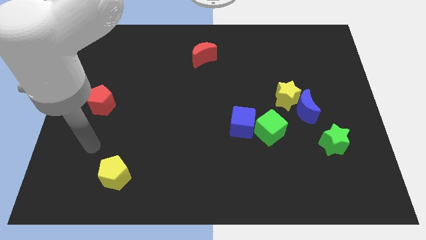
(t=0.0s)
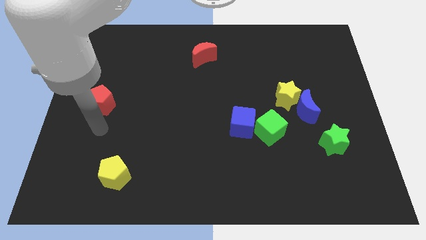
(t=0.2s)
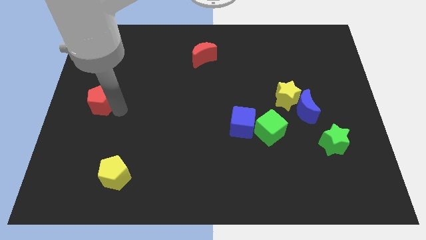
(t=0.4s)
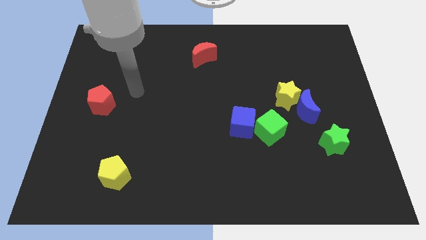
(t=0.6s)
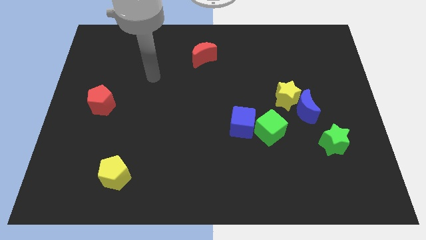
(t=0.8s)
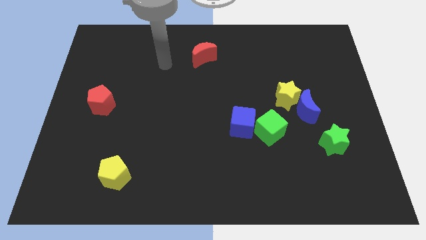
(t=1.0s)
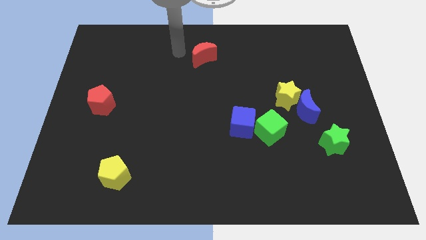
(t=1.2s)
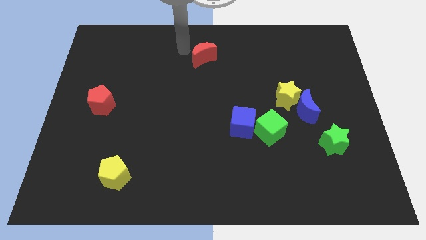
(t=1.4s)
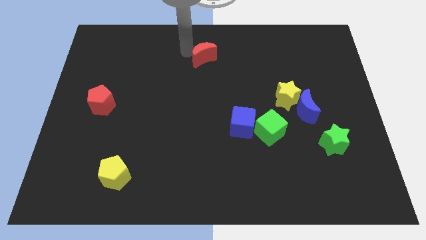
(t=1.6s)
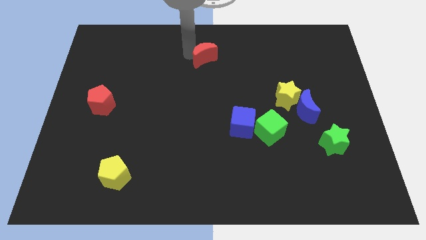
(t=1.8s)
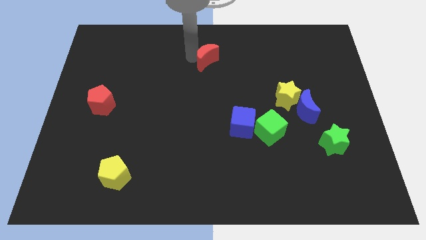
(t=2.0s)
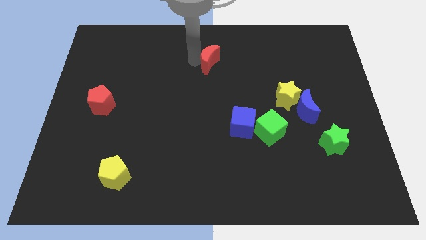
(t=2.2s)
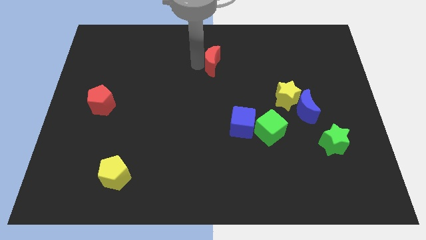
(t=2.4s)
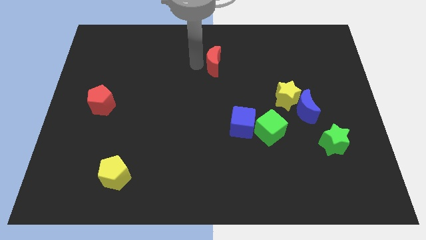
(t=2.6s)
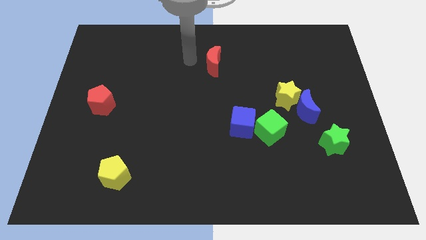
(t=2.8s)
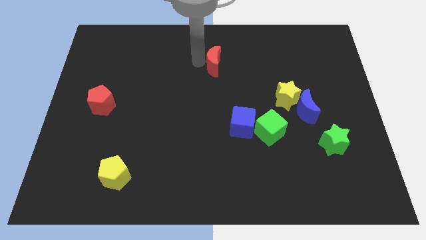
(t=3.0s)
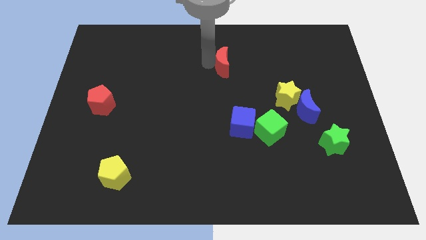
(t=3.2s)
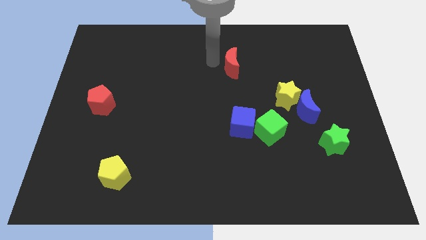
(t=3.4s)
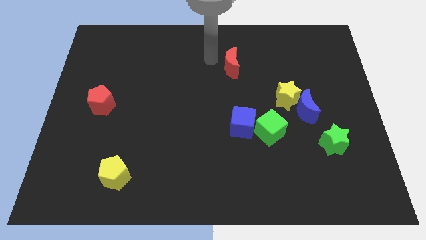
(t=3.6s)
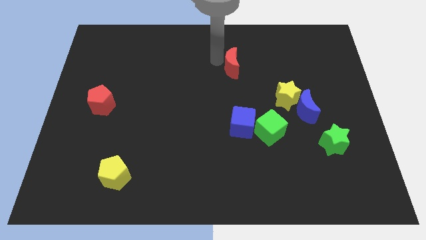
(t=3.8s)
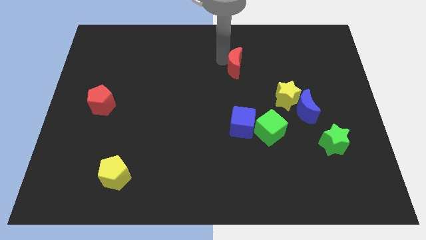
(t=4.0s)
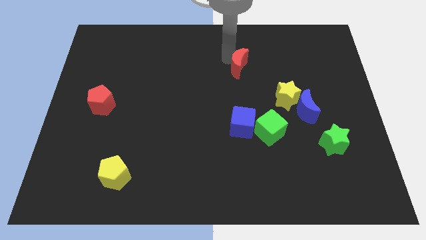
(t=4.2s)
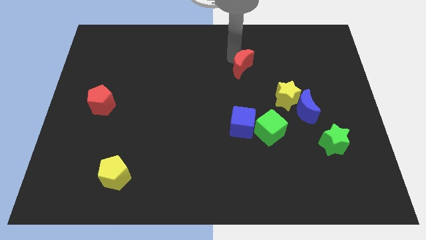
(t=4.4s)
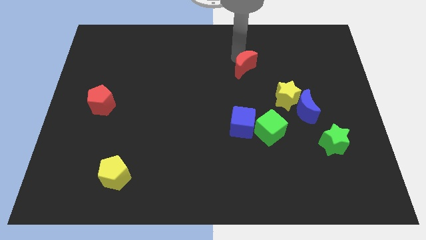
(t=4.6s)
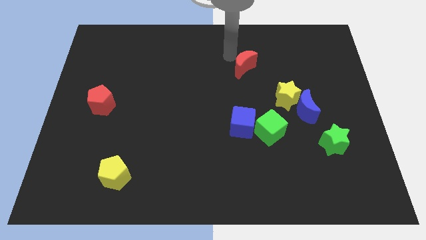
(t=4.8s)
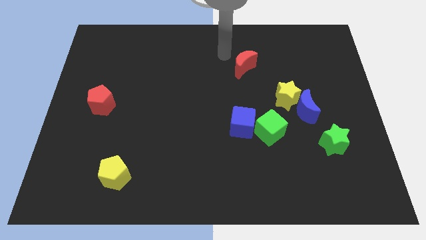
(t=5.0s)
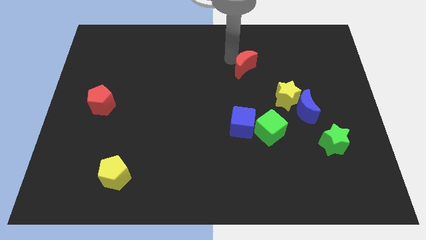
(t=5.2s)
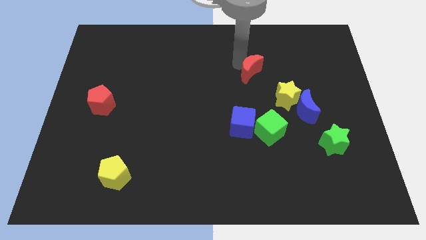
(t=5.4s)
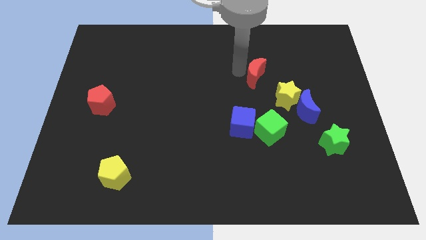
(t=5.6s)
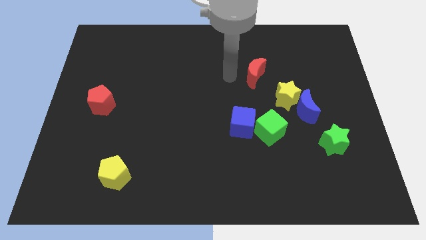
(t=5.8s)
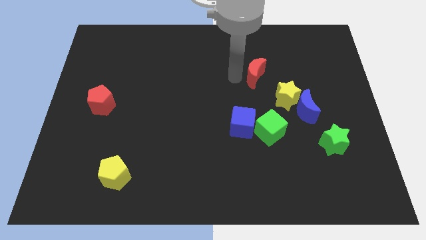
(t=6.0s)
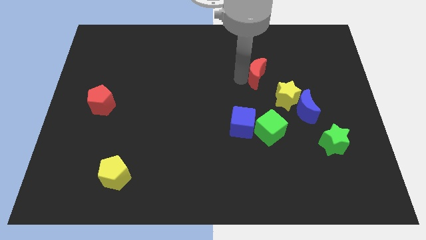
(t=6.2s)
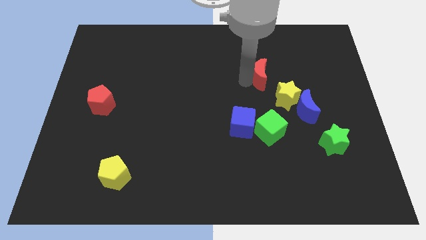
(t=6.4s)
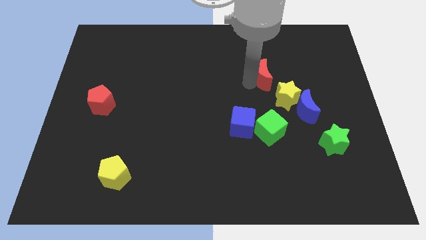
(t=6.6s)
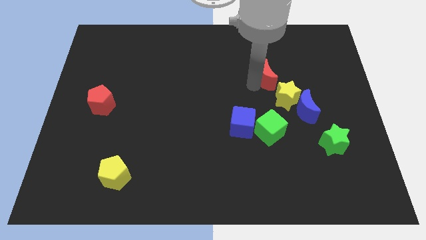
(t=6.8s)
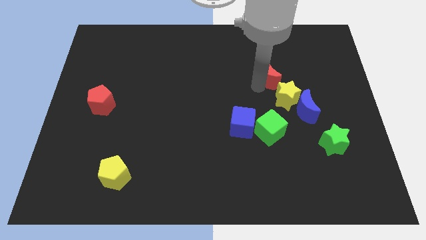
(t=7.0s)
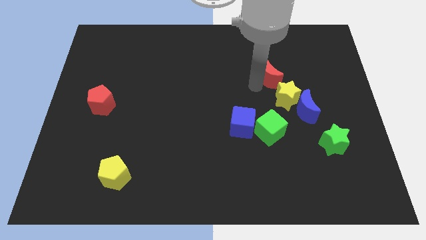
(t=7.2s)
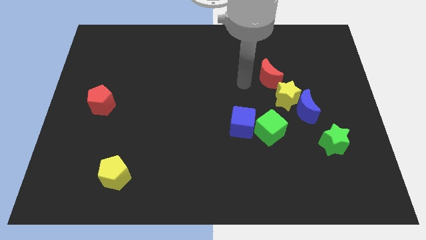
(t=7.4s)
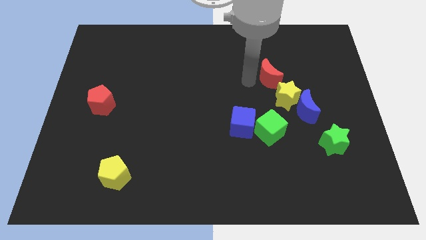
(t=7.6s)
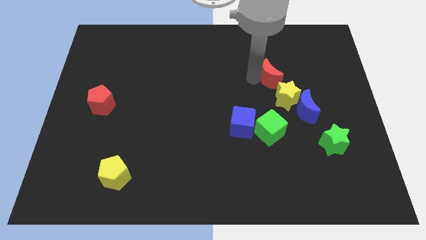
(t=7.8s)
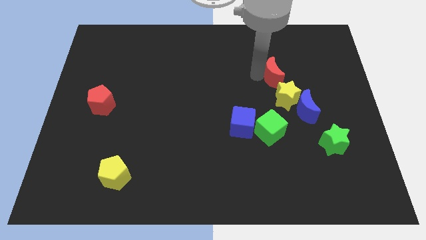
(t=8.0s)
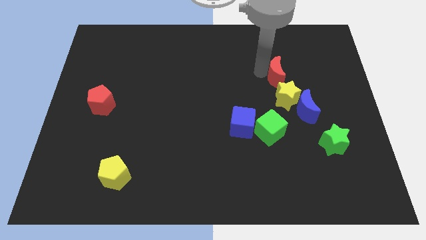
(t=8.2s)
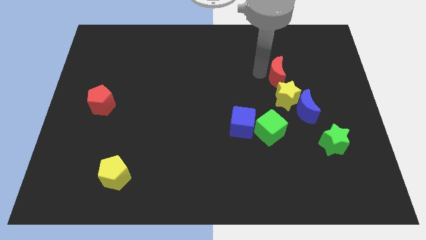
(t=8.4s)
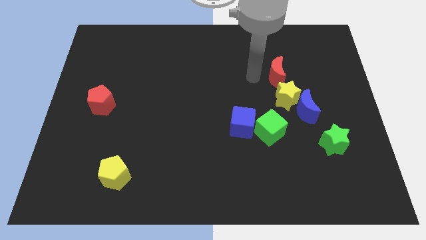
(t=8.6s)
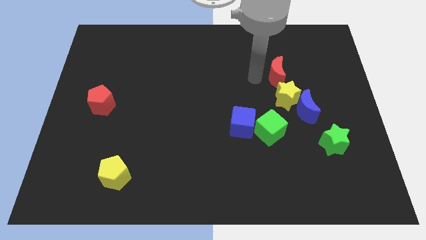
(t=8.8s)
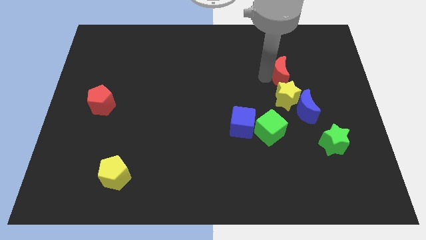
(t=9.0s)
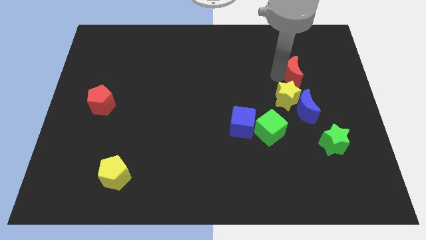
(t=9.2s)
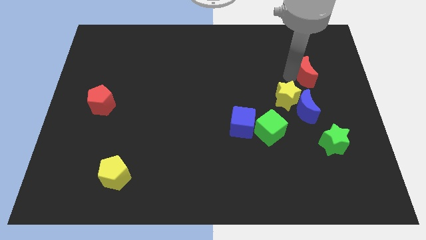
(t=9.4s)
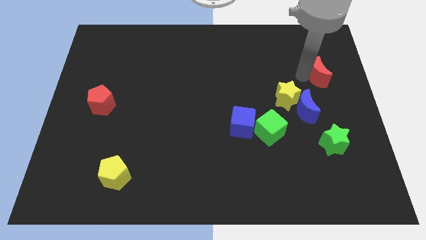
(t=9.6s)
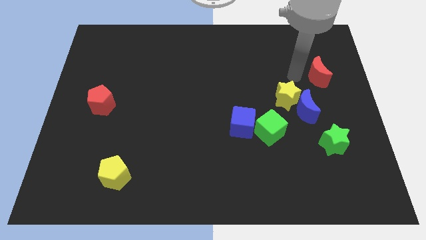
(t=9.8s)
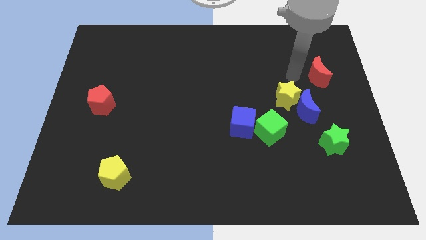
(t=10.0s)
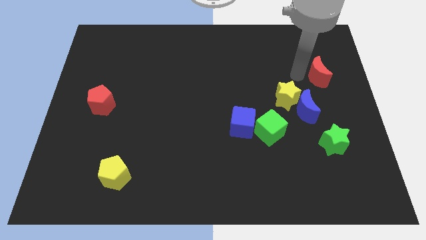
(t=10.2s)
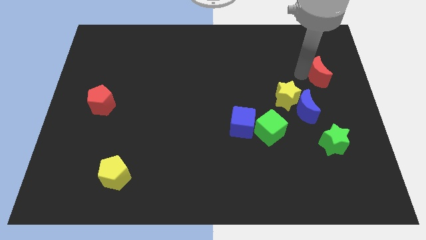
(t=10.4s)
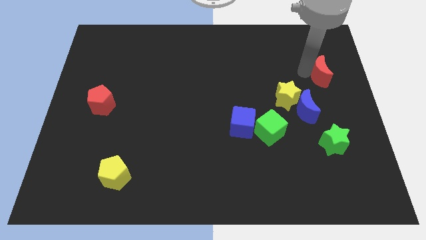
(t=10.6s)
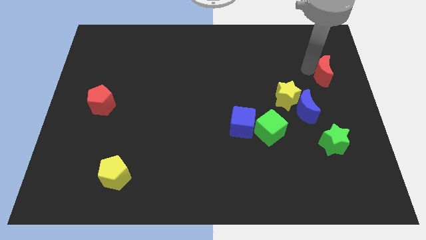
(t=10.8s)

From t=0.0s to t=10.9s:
slide the red moon to the right side of the board
